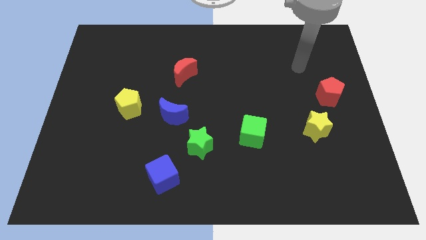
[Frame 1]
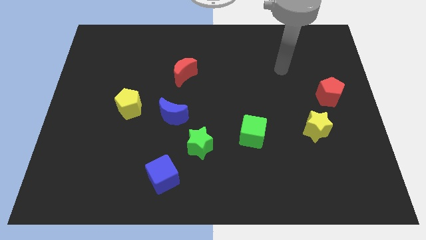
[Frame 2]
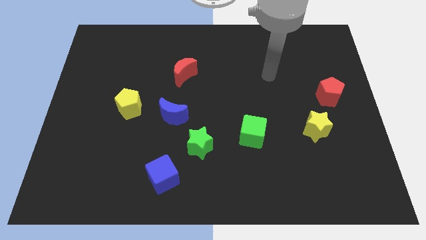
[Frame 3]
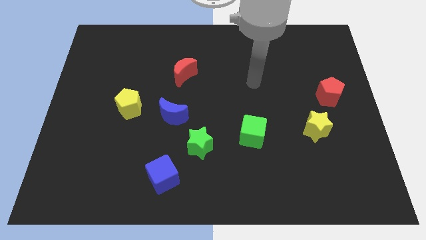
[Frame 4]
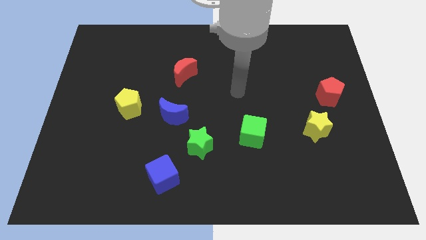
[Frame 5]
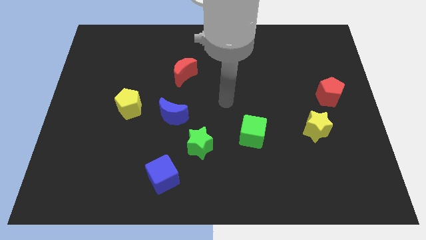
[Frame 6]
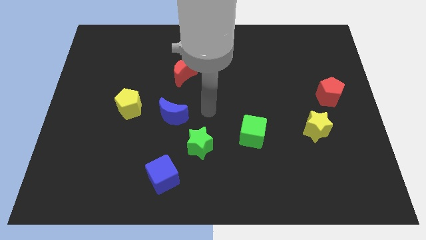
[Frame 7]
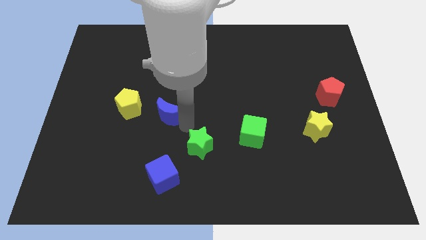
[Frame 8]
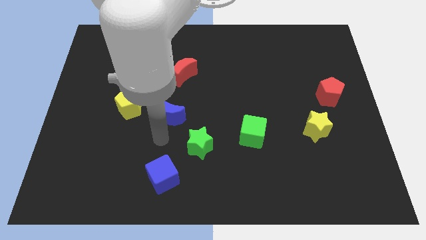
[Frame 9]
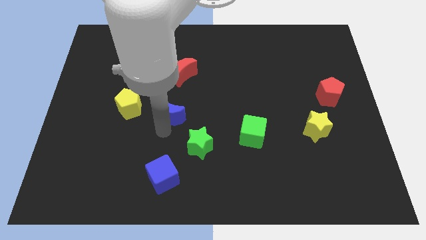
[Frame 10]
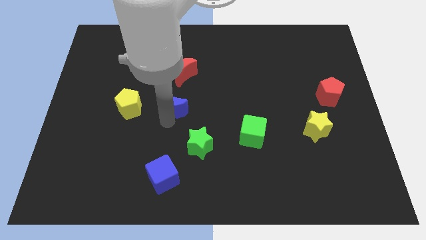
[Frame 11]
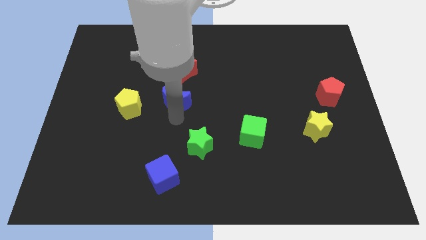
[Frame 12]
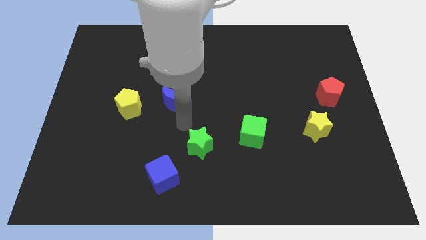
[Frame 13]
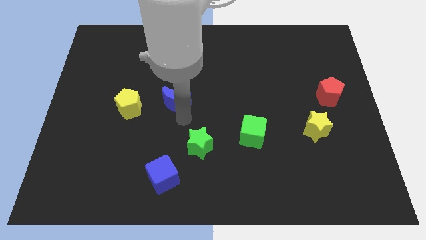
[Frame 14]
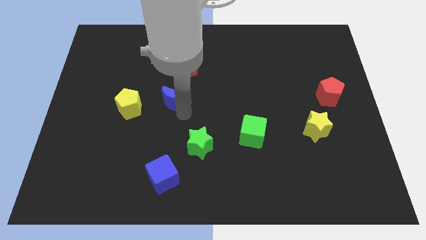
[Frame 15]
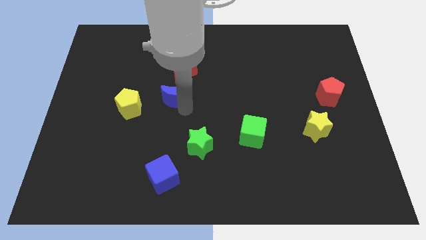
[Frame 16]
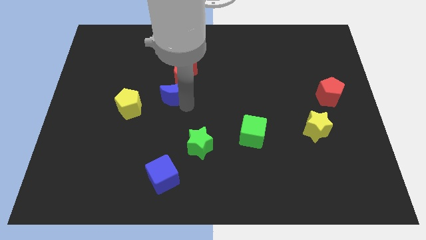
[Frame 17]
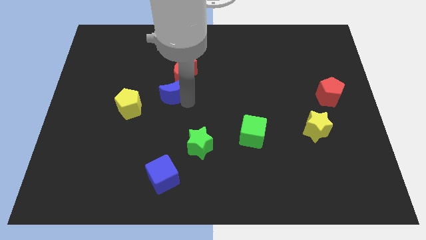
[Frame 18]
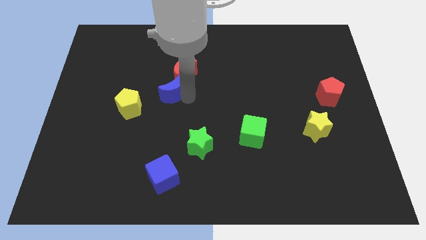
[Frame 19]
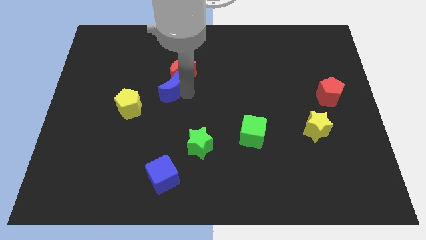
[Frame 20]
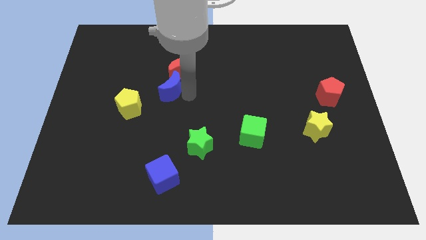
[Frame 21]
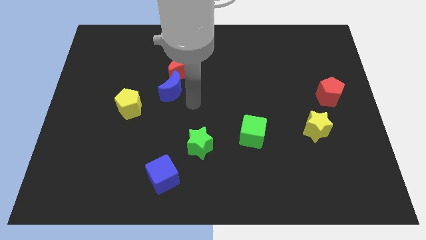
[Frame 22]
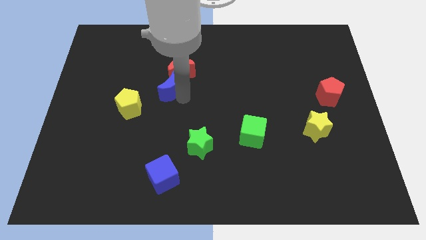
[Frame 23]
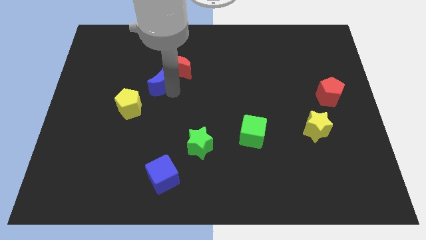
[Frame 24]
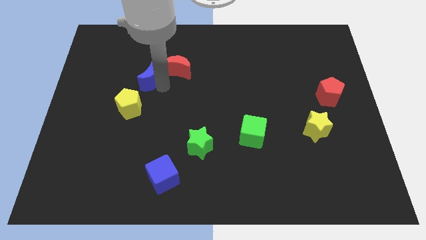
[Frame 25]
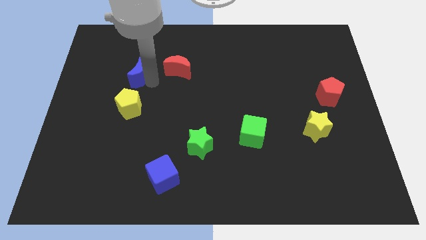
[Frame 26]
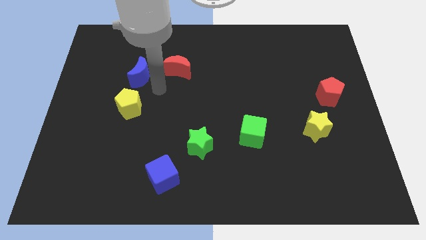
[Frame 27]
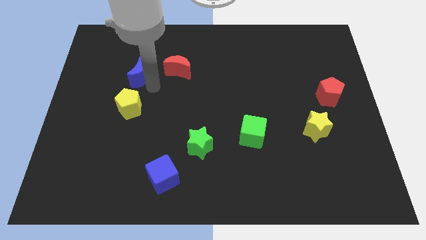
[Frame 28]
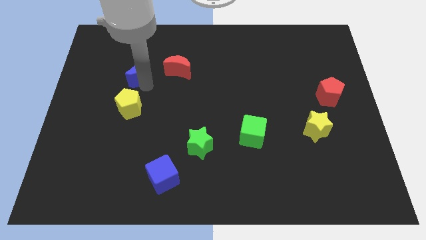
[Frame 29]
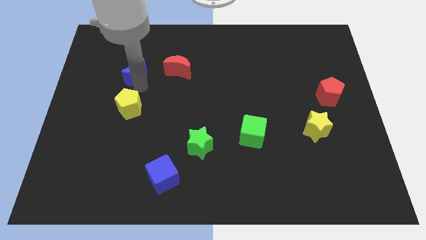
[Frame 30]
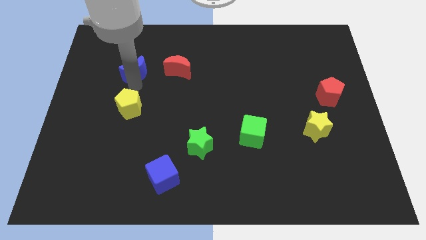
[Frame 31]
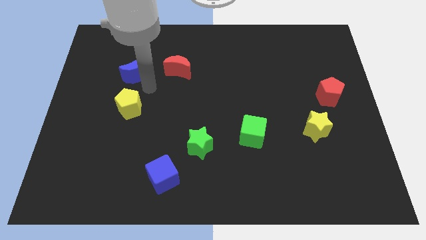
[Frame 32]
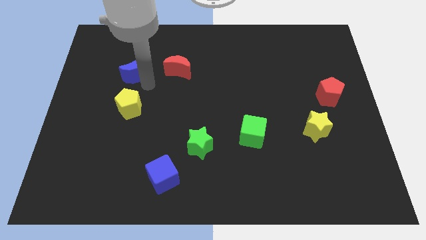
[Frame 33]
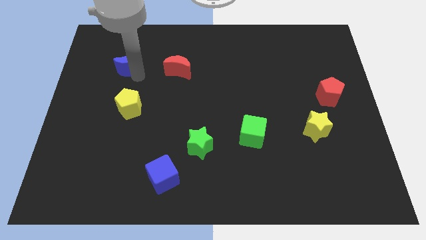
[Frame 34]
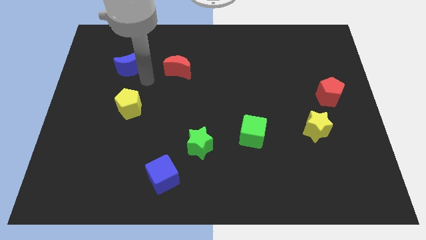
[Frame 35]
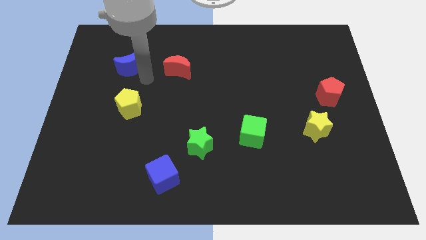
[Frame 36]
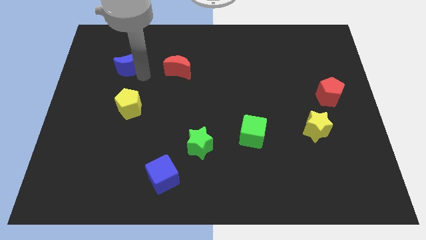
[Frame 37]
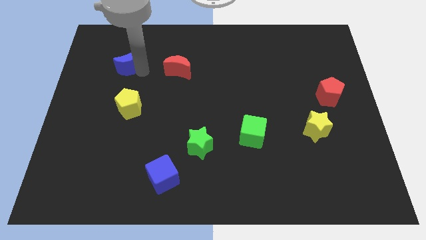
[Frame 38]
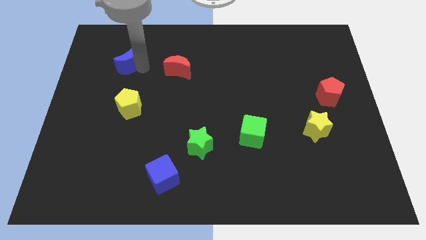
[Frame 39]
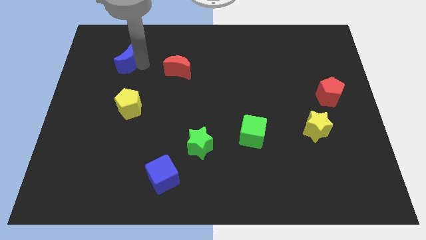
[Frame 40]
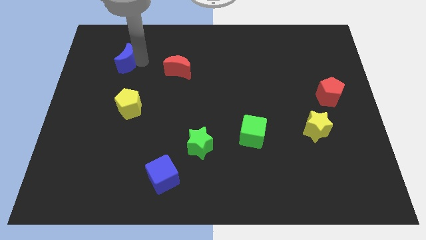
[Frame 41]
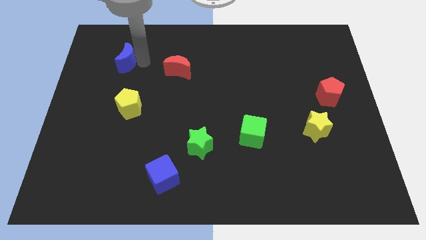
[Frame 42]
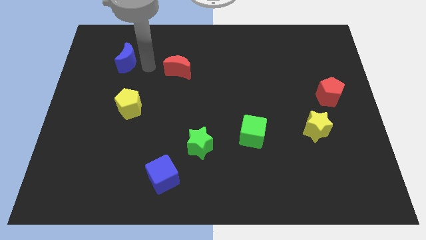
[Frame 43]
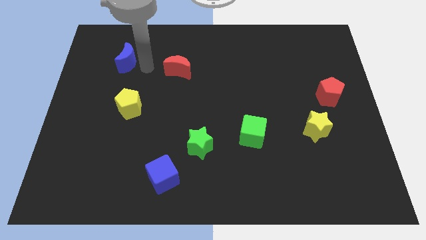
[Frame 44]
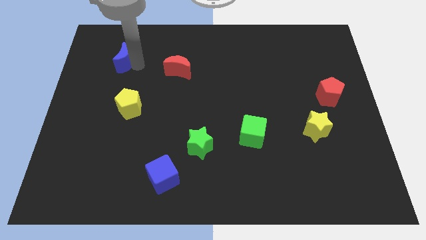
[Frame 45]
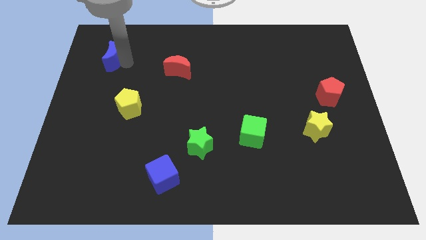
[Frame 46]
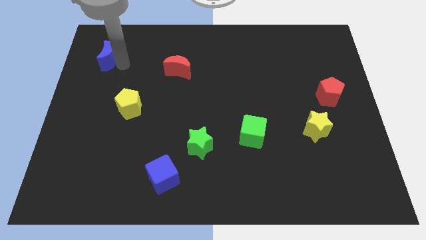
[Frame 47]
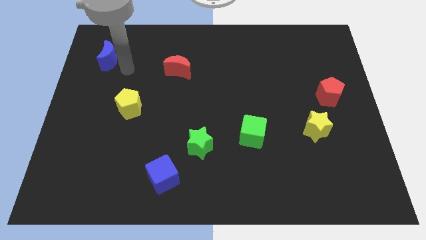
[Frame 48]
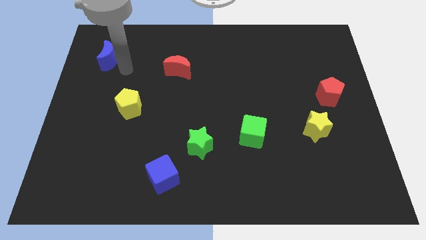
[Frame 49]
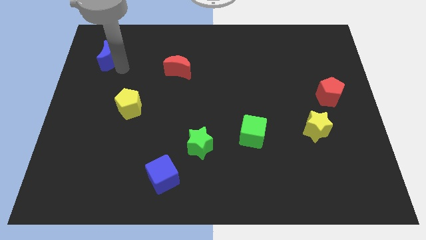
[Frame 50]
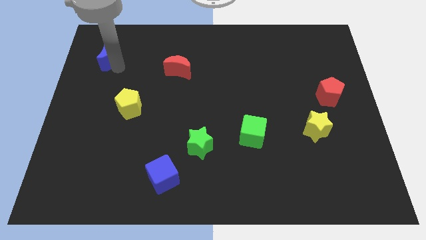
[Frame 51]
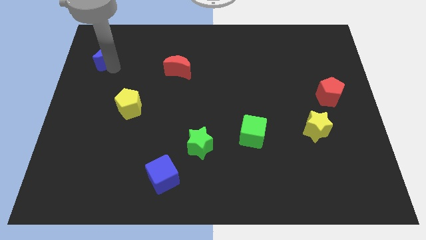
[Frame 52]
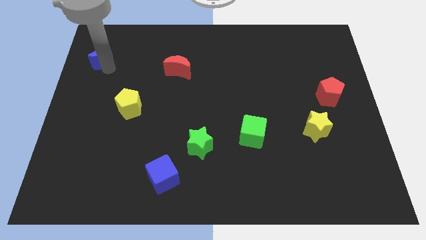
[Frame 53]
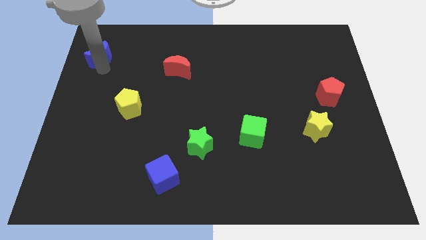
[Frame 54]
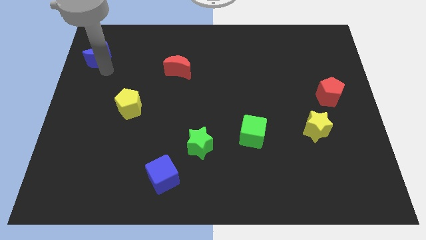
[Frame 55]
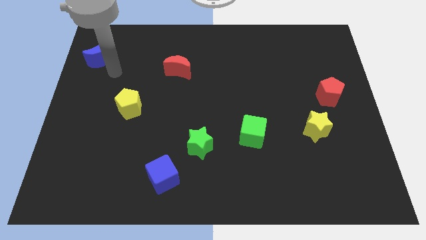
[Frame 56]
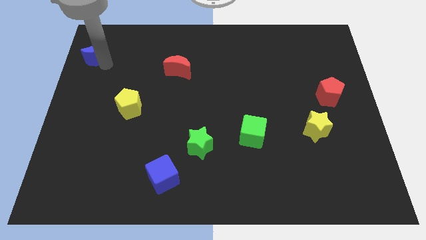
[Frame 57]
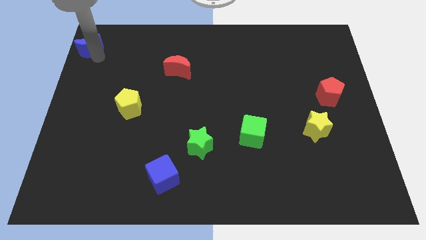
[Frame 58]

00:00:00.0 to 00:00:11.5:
push the blue moon to the upper left corner

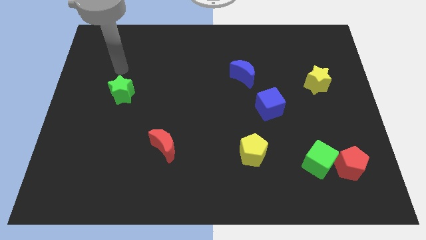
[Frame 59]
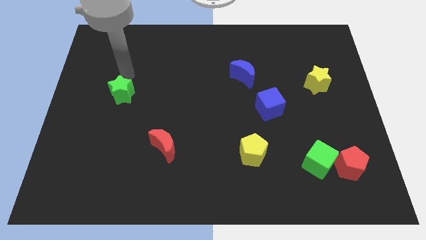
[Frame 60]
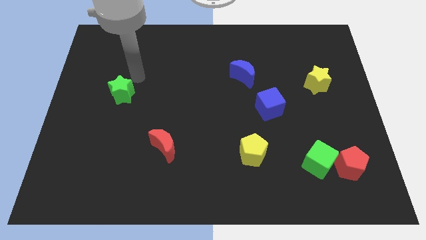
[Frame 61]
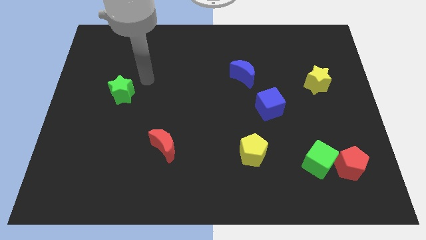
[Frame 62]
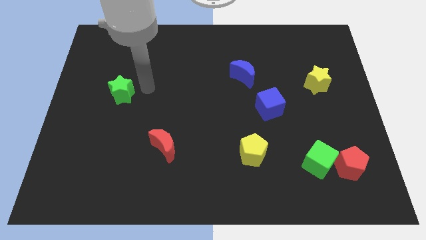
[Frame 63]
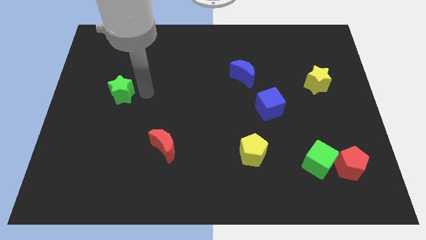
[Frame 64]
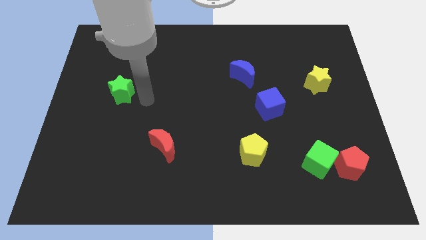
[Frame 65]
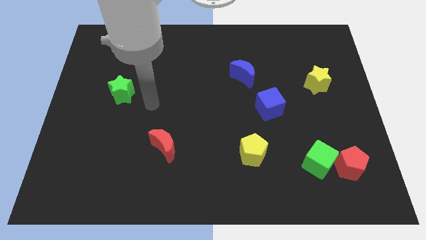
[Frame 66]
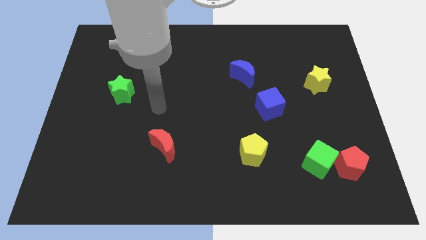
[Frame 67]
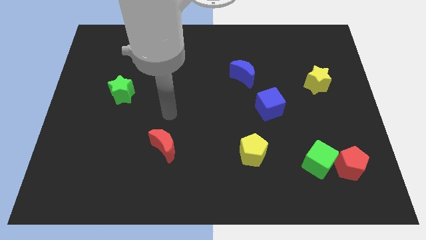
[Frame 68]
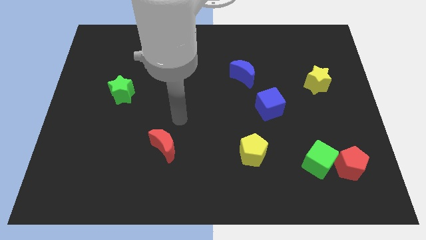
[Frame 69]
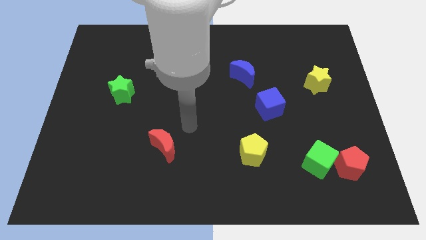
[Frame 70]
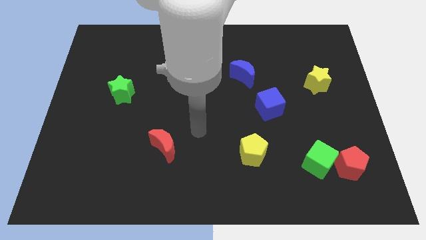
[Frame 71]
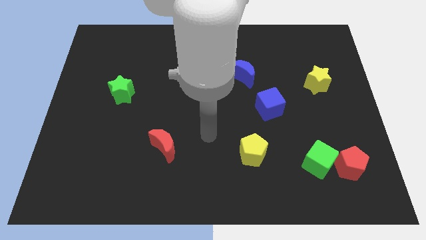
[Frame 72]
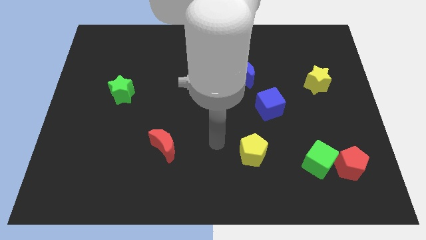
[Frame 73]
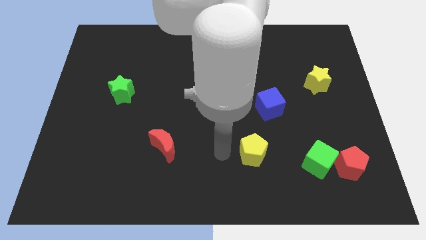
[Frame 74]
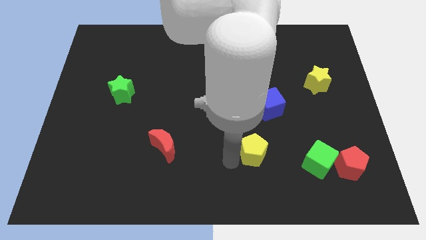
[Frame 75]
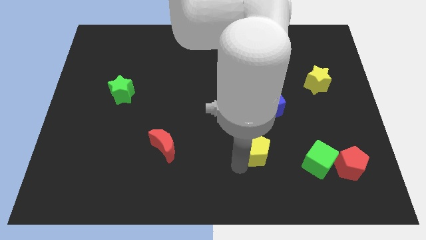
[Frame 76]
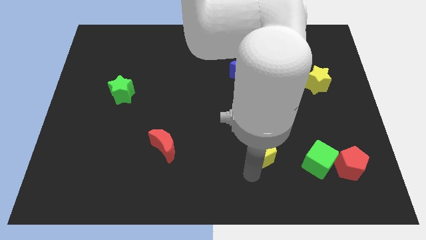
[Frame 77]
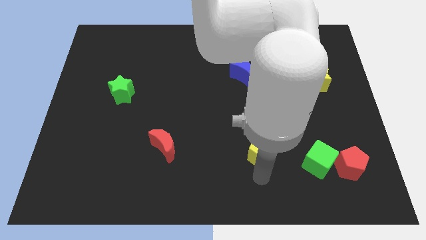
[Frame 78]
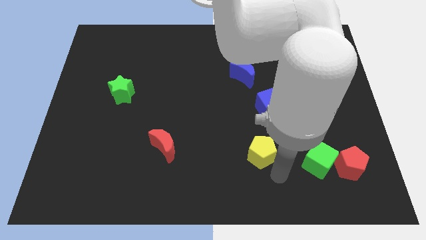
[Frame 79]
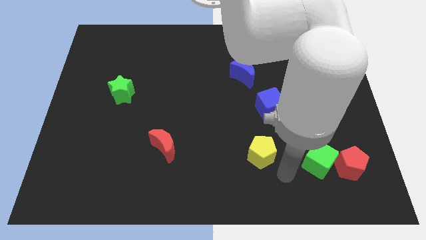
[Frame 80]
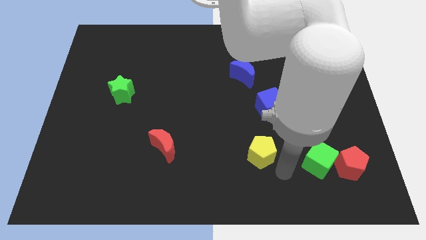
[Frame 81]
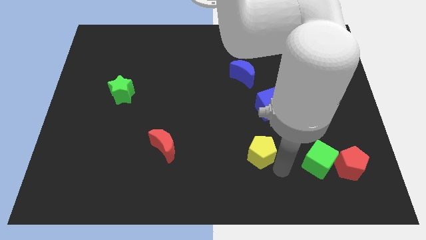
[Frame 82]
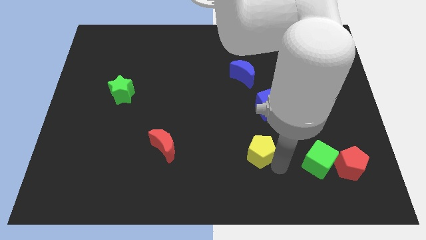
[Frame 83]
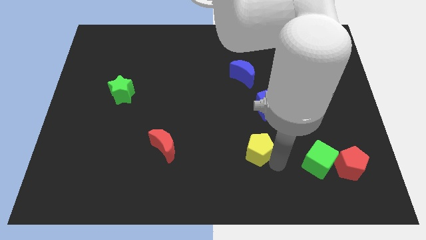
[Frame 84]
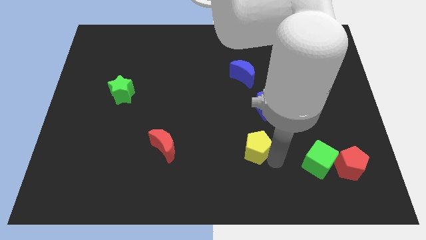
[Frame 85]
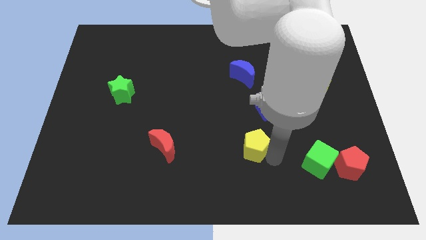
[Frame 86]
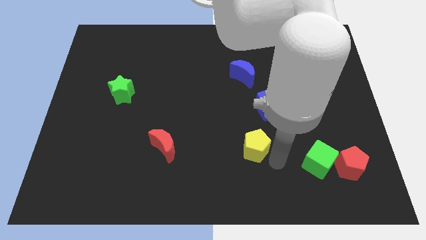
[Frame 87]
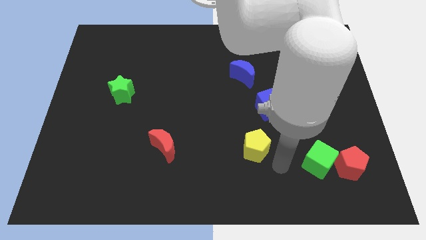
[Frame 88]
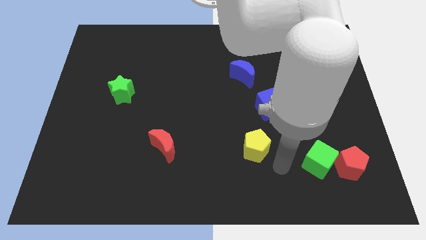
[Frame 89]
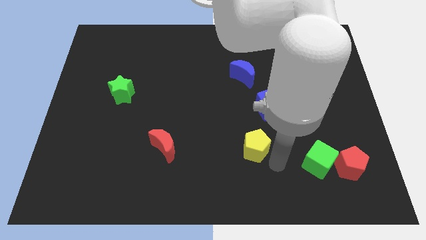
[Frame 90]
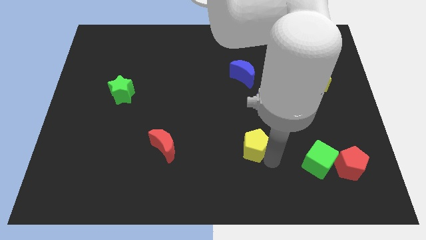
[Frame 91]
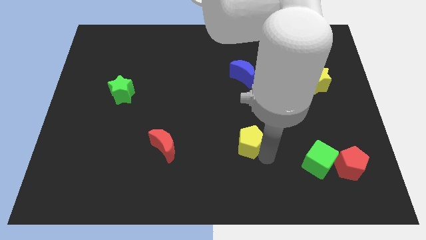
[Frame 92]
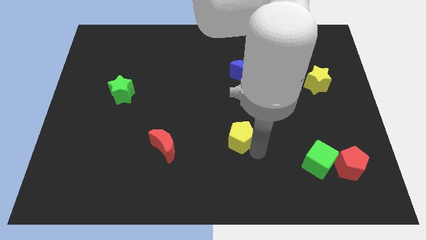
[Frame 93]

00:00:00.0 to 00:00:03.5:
slide the yellow pentagon to the middle of the board
